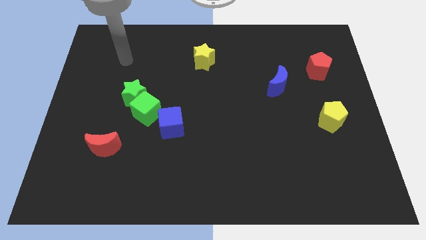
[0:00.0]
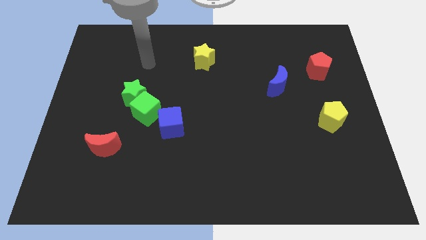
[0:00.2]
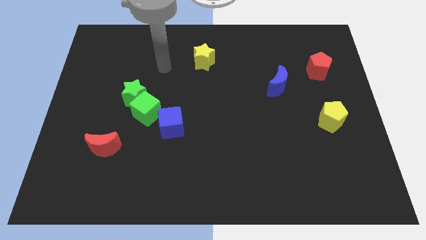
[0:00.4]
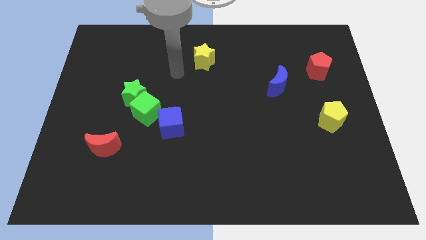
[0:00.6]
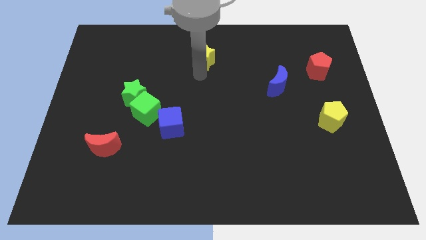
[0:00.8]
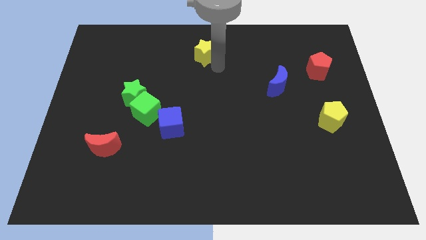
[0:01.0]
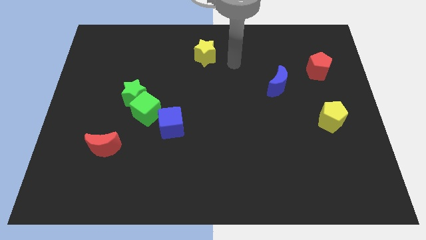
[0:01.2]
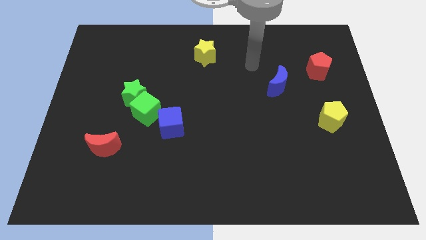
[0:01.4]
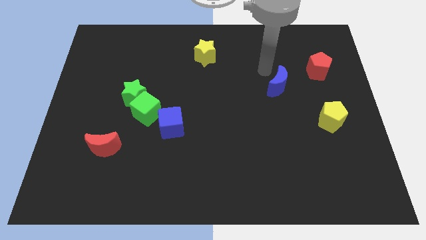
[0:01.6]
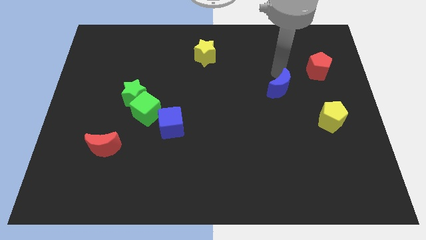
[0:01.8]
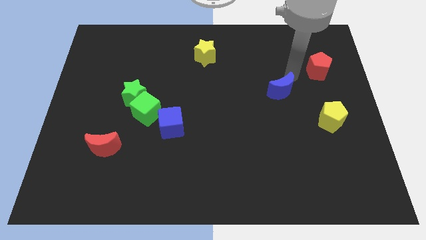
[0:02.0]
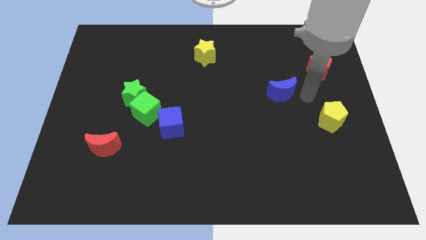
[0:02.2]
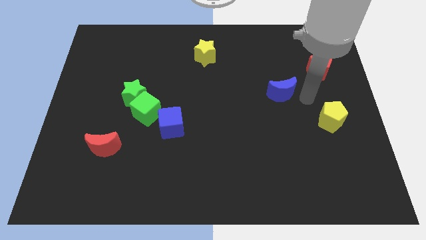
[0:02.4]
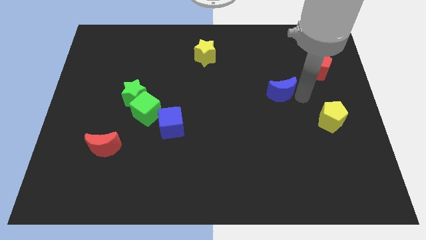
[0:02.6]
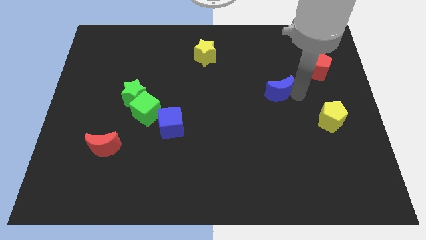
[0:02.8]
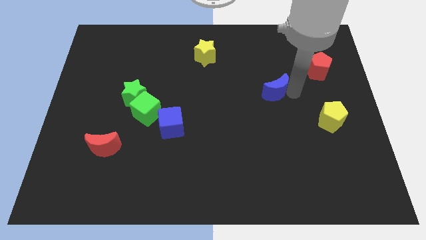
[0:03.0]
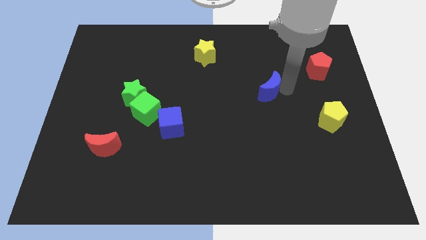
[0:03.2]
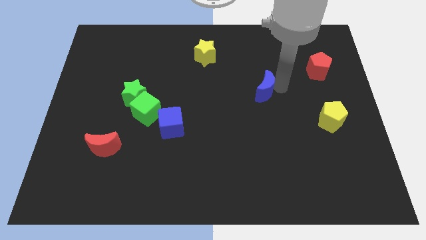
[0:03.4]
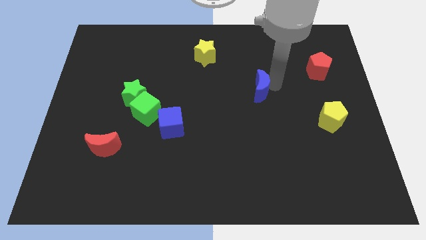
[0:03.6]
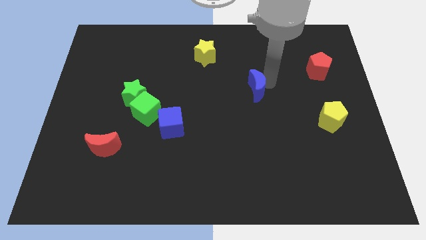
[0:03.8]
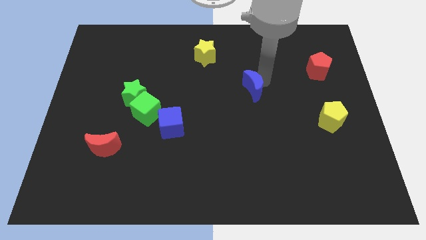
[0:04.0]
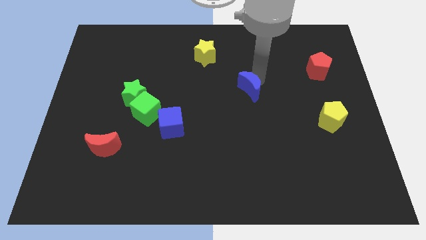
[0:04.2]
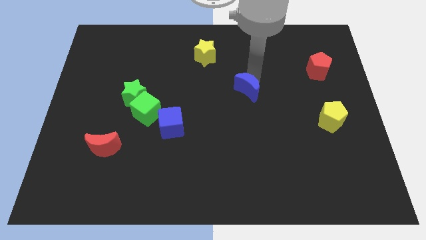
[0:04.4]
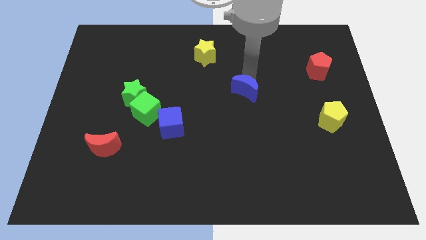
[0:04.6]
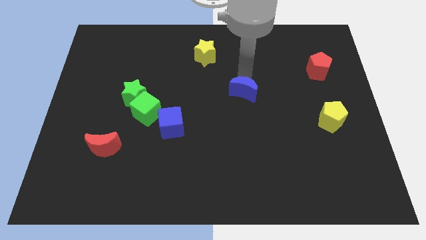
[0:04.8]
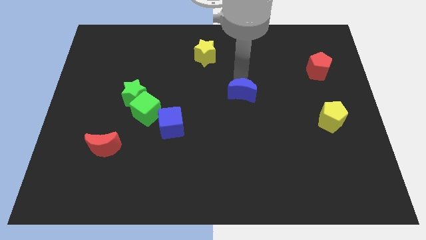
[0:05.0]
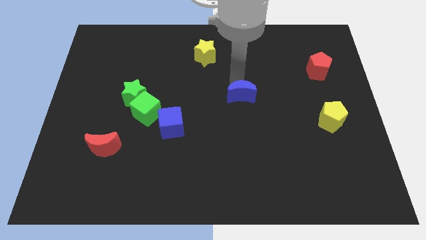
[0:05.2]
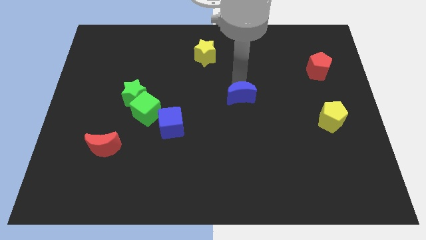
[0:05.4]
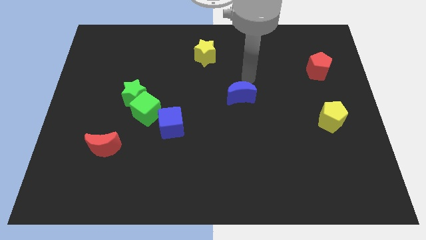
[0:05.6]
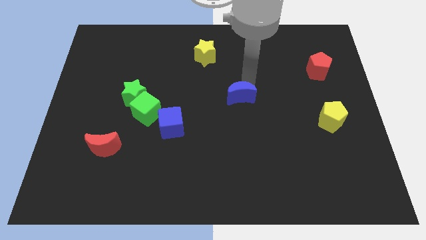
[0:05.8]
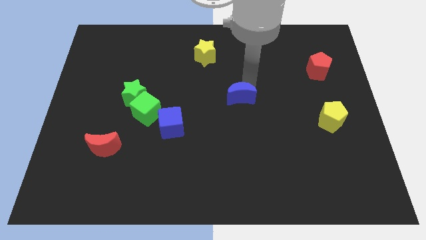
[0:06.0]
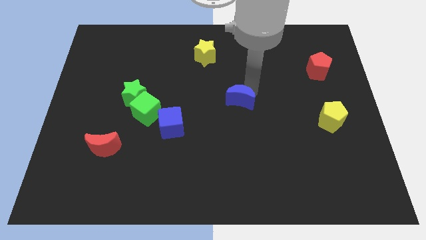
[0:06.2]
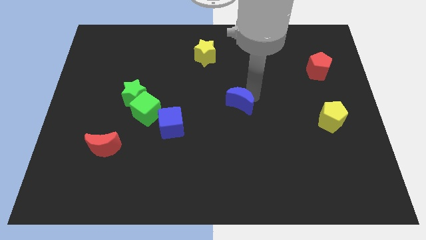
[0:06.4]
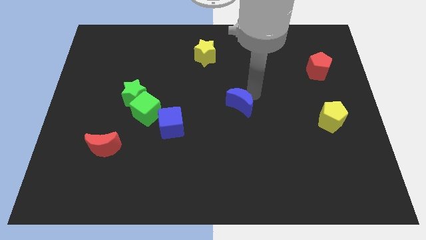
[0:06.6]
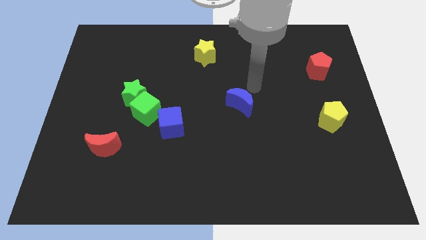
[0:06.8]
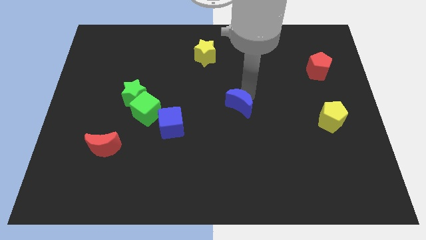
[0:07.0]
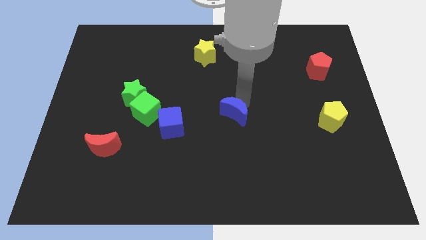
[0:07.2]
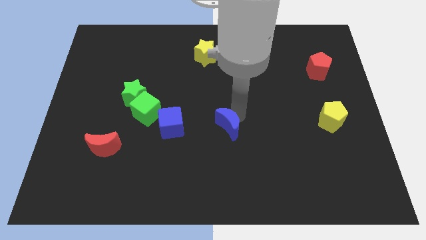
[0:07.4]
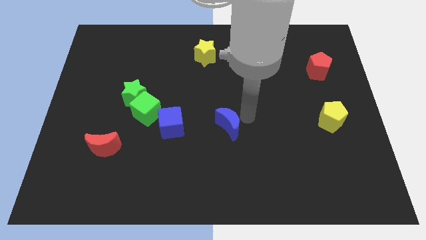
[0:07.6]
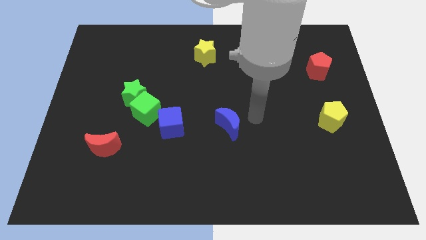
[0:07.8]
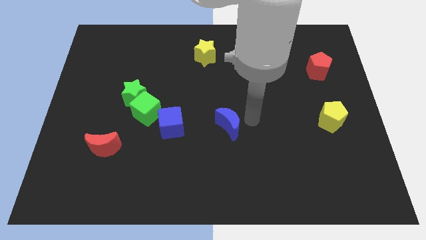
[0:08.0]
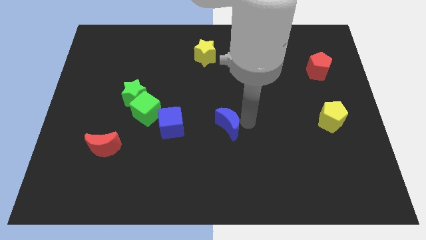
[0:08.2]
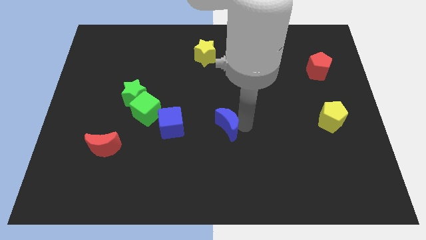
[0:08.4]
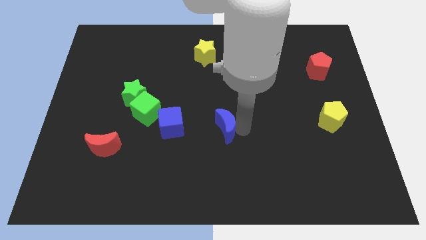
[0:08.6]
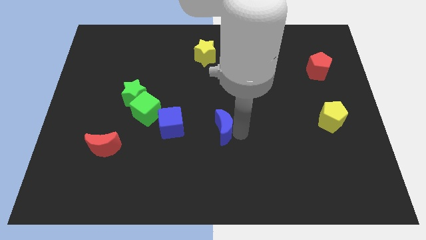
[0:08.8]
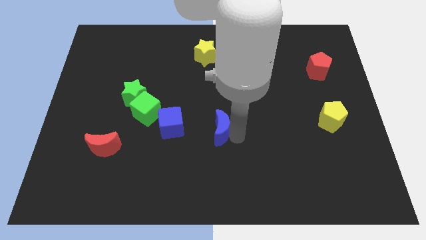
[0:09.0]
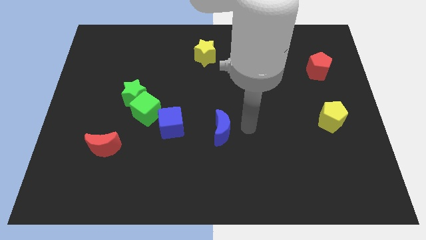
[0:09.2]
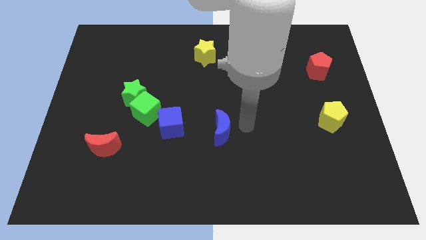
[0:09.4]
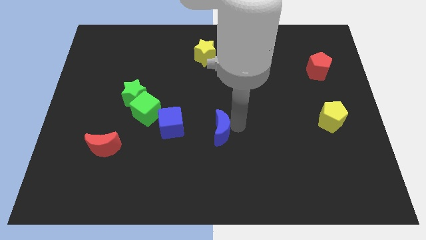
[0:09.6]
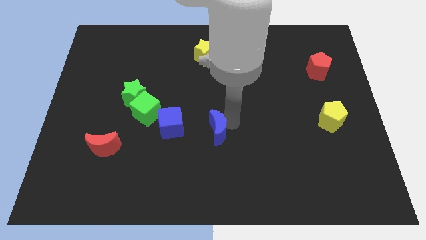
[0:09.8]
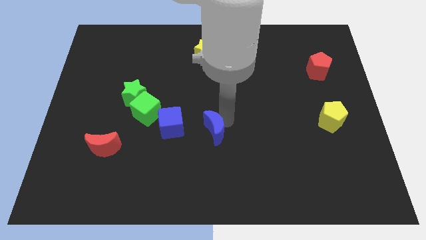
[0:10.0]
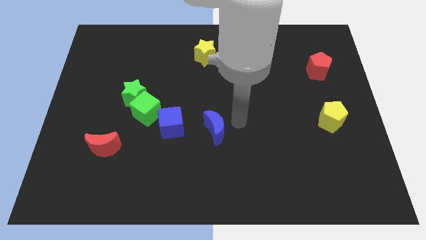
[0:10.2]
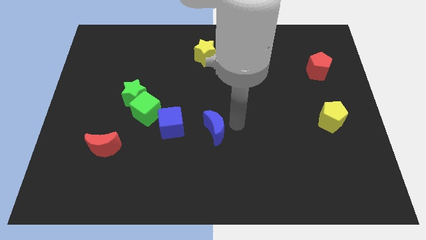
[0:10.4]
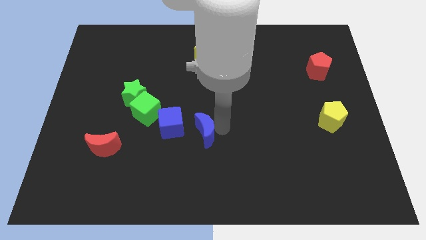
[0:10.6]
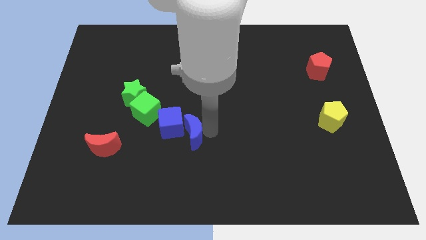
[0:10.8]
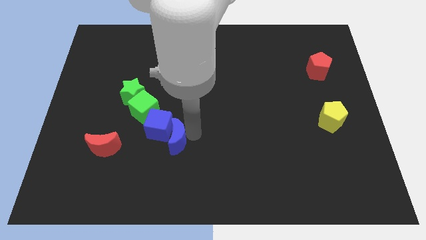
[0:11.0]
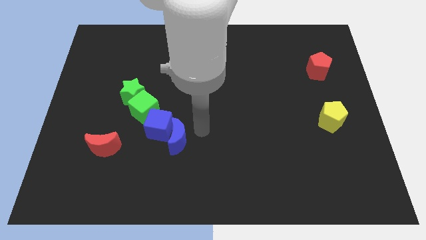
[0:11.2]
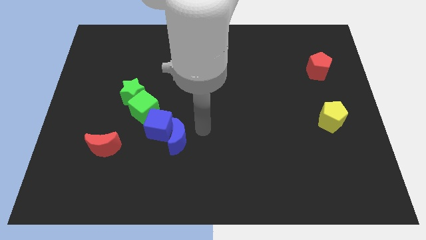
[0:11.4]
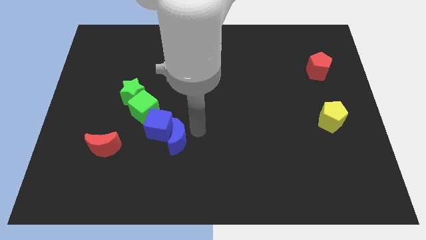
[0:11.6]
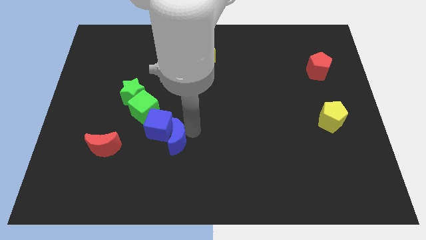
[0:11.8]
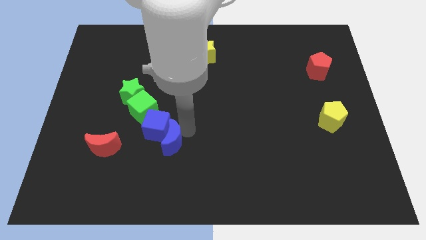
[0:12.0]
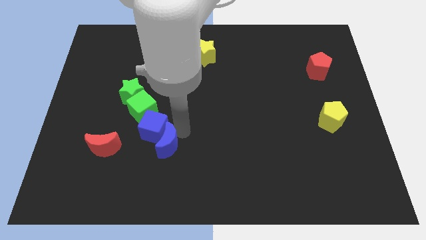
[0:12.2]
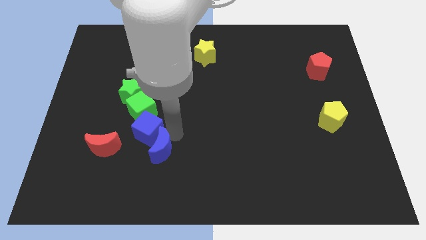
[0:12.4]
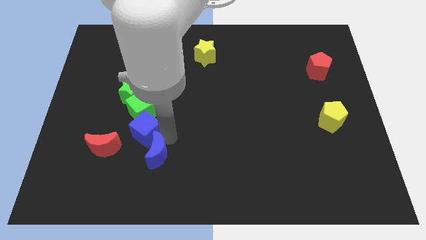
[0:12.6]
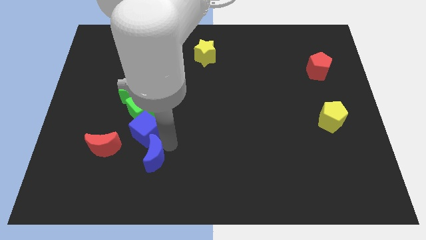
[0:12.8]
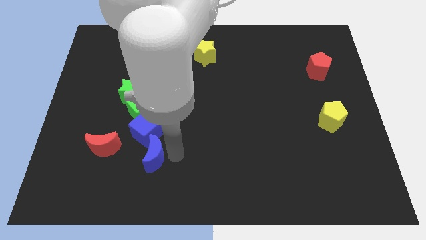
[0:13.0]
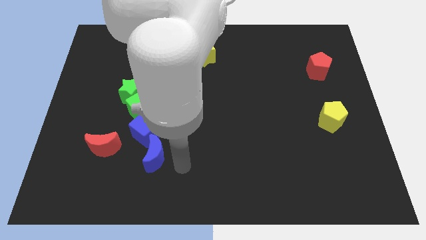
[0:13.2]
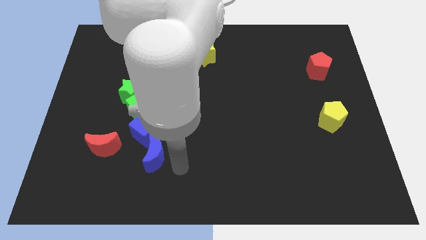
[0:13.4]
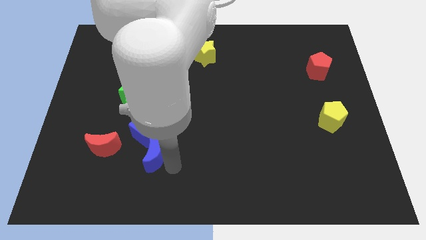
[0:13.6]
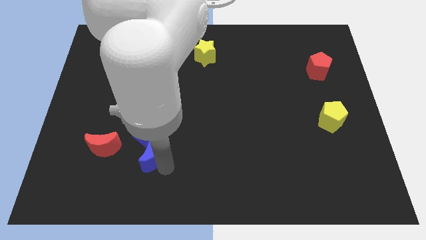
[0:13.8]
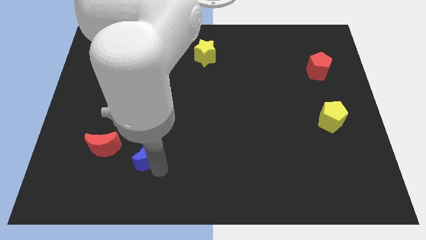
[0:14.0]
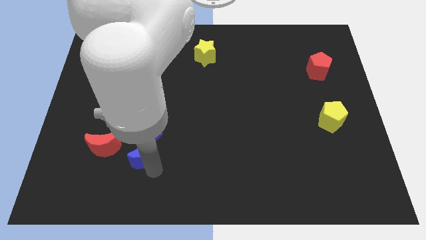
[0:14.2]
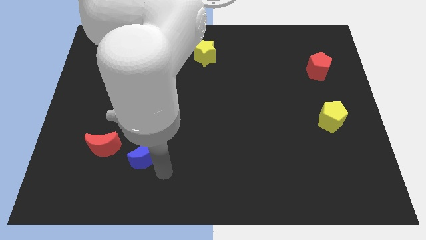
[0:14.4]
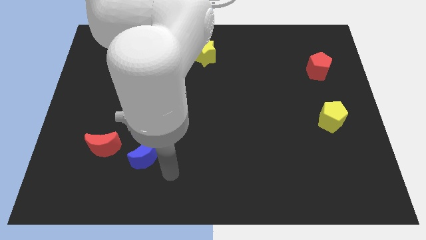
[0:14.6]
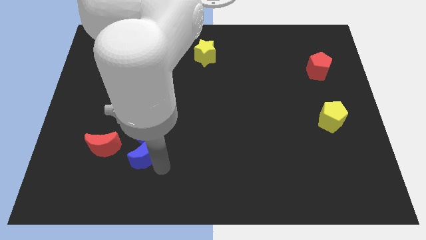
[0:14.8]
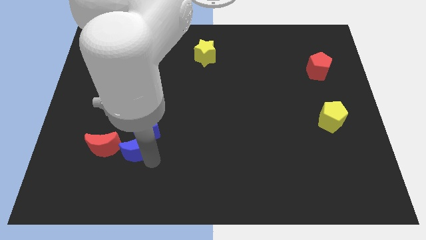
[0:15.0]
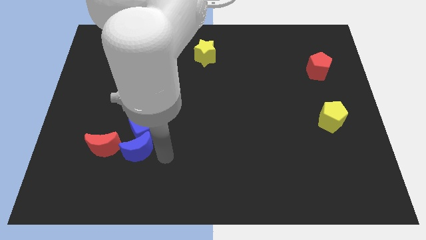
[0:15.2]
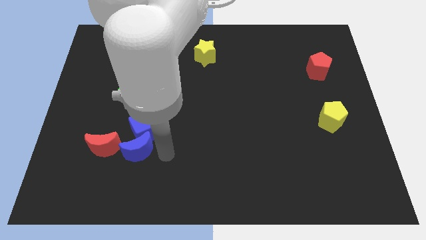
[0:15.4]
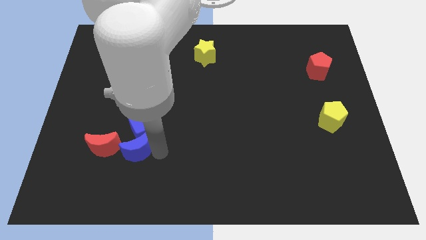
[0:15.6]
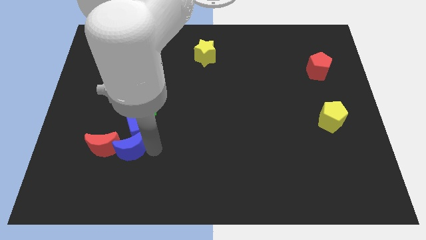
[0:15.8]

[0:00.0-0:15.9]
put the blue moon next to the red moon
